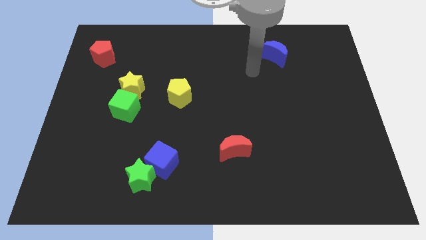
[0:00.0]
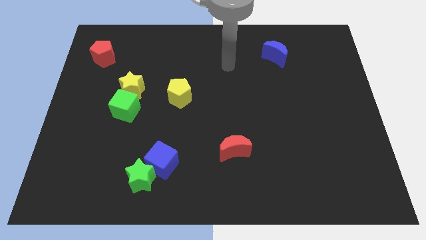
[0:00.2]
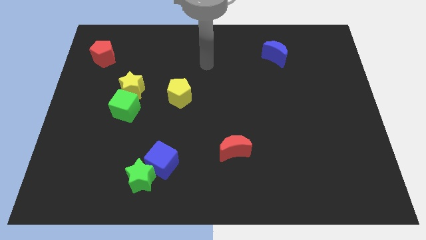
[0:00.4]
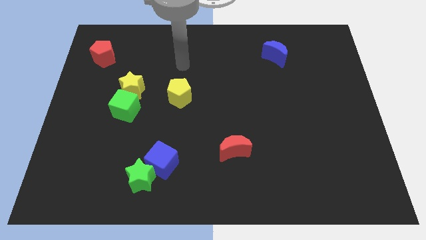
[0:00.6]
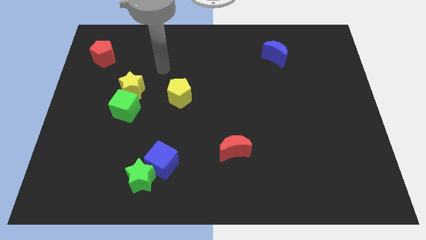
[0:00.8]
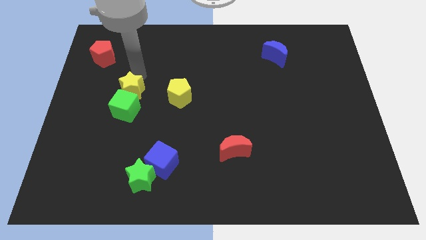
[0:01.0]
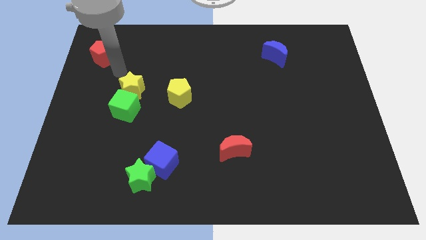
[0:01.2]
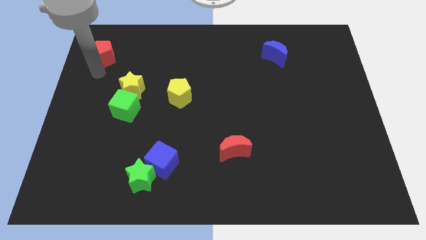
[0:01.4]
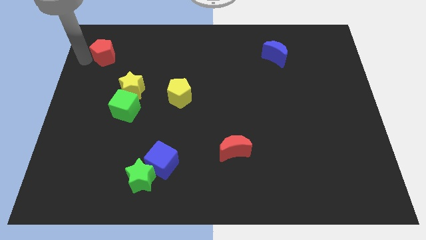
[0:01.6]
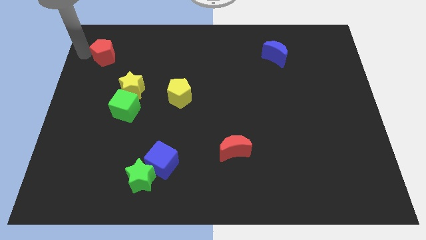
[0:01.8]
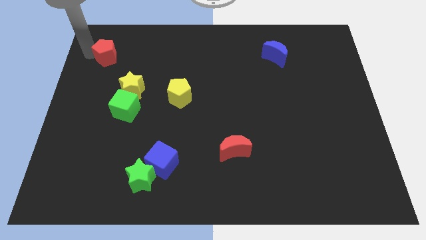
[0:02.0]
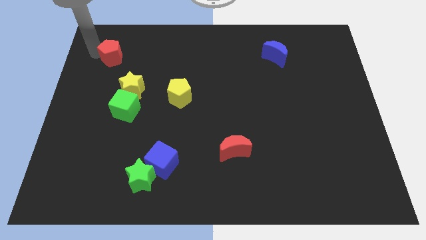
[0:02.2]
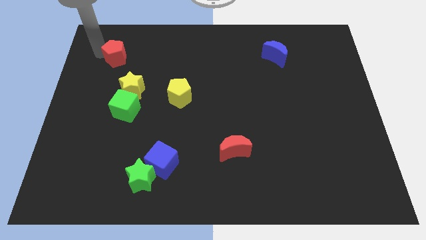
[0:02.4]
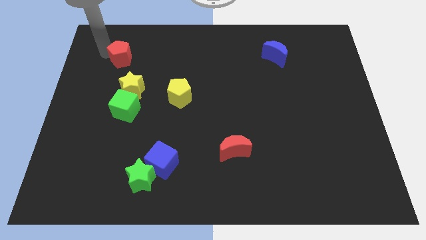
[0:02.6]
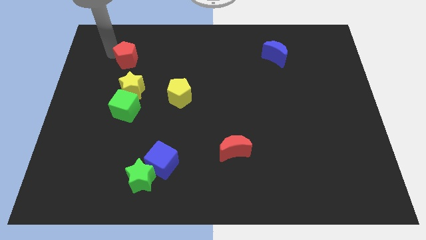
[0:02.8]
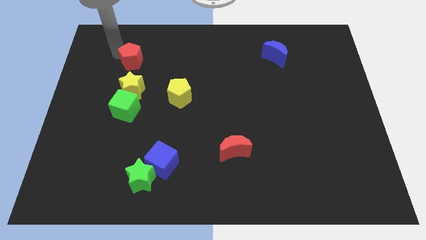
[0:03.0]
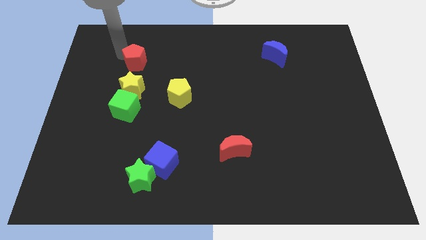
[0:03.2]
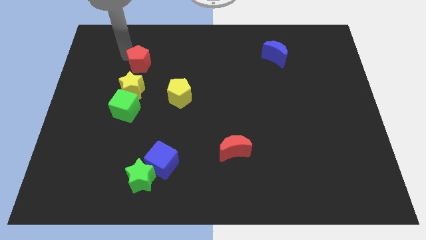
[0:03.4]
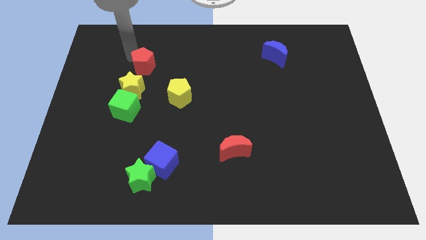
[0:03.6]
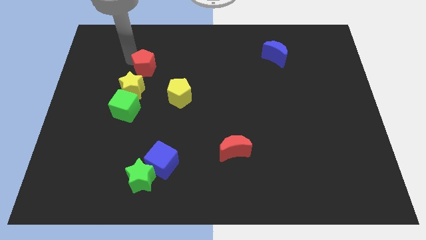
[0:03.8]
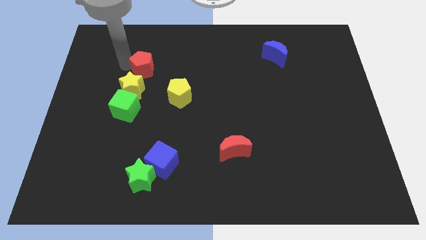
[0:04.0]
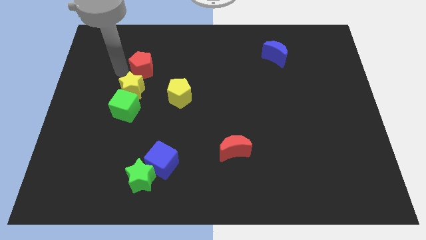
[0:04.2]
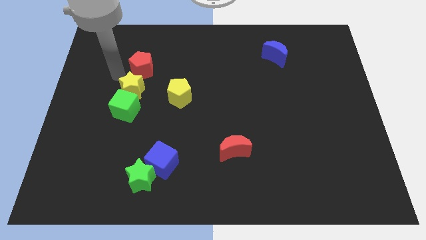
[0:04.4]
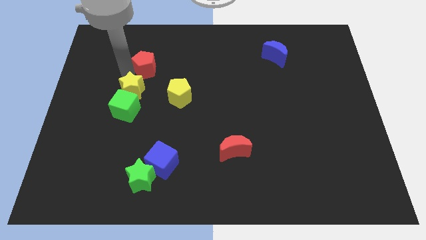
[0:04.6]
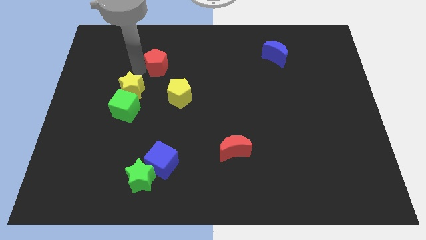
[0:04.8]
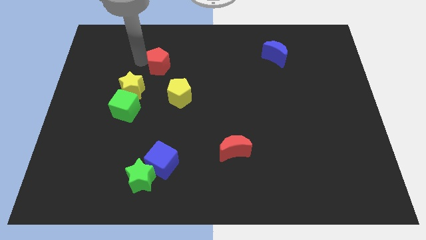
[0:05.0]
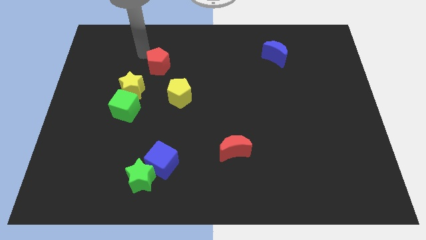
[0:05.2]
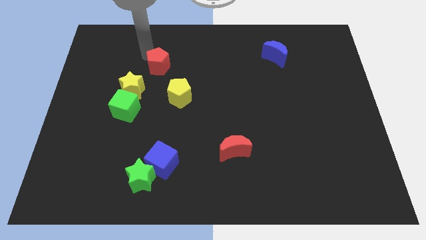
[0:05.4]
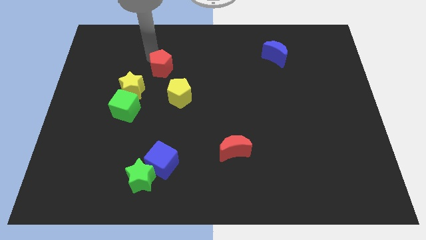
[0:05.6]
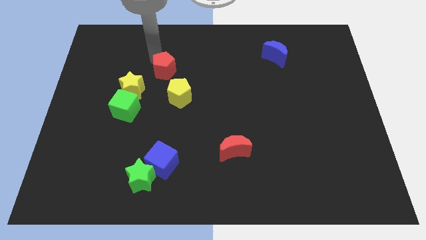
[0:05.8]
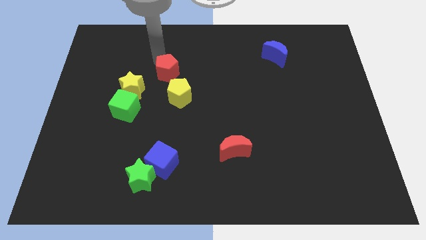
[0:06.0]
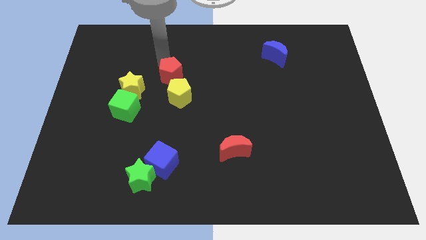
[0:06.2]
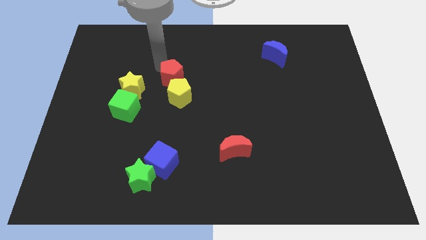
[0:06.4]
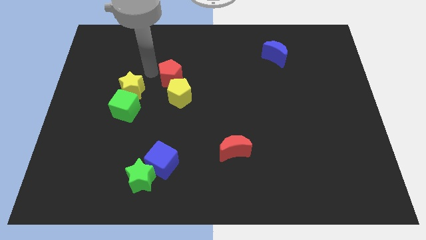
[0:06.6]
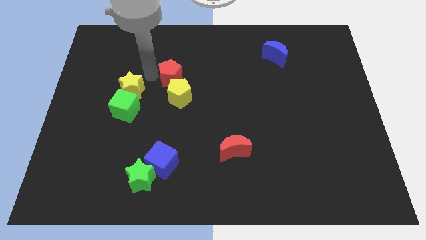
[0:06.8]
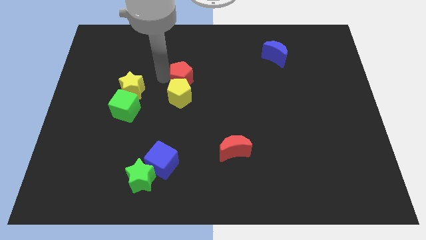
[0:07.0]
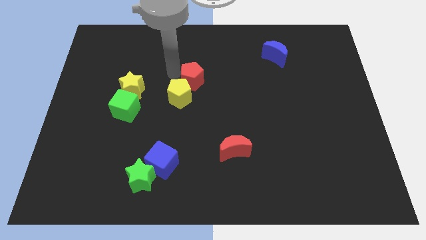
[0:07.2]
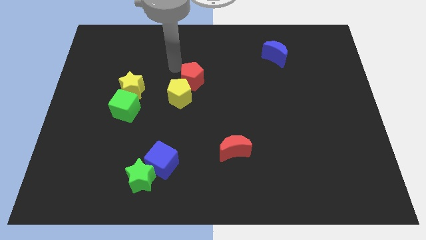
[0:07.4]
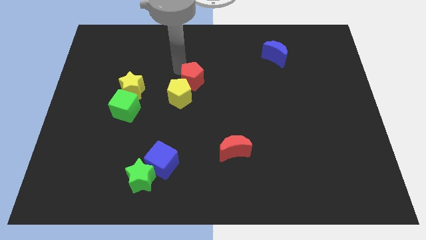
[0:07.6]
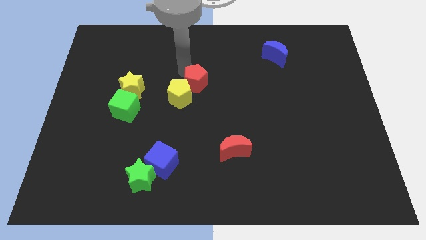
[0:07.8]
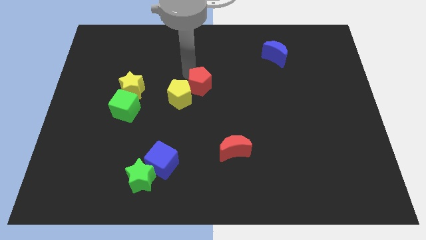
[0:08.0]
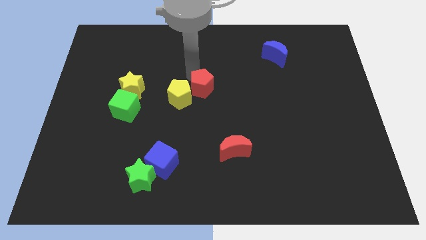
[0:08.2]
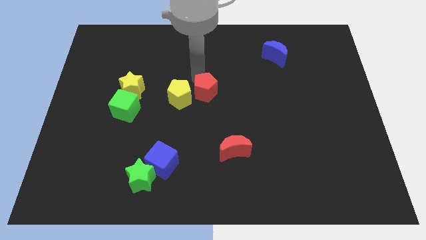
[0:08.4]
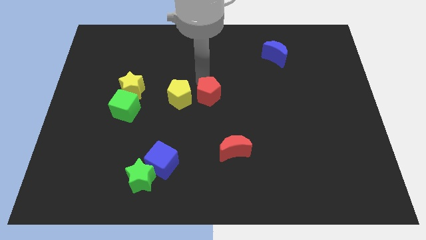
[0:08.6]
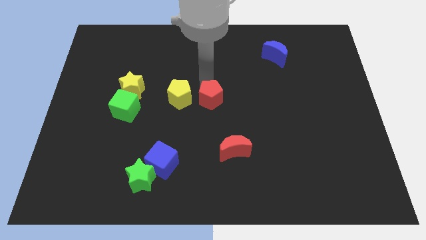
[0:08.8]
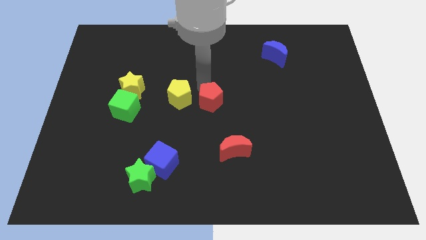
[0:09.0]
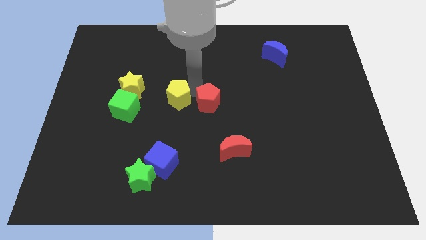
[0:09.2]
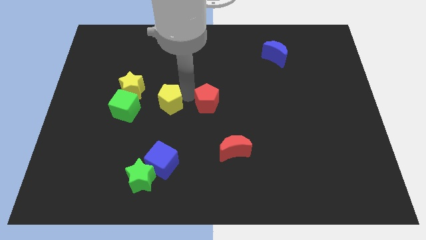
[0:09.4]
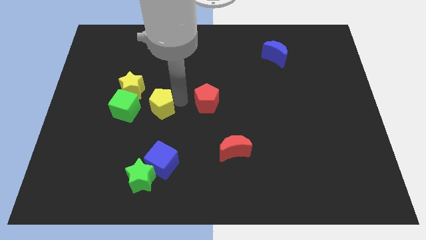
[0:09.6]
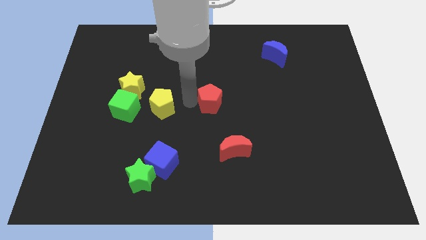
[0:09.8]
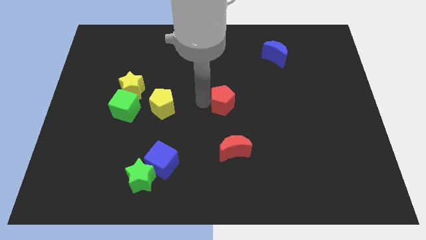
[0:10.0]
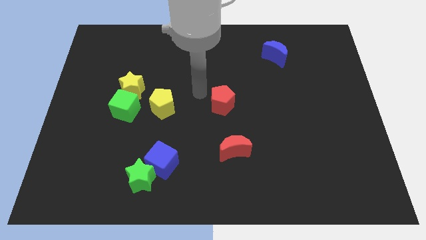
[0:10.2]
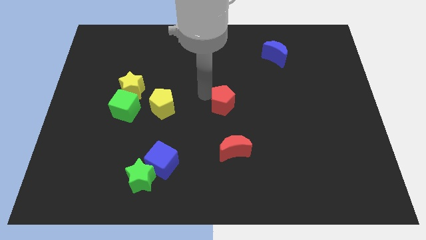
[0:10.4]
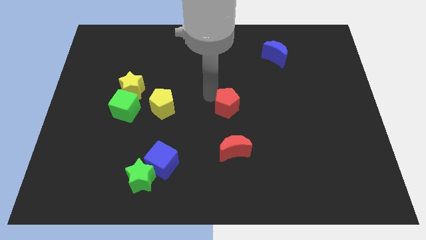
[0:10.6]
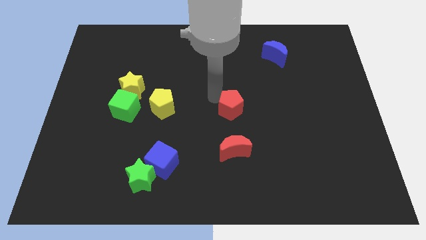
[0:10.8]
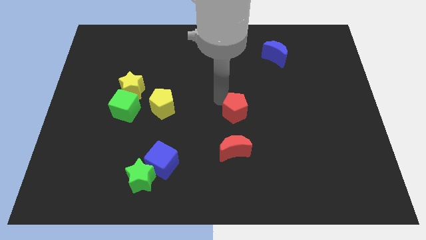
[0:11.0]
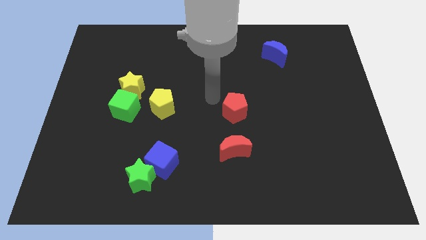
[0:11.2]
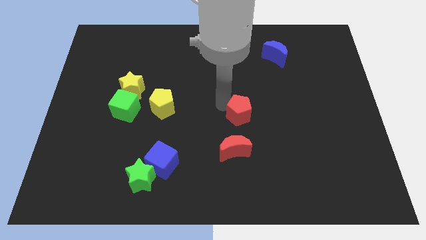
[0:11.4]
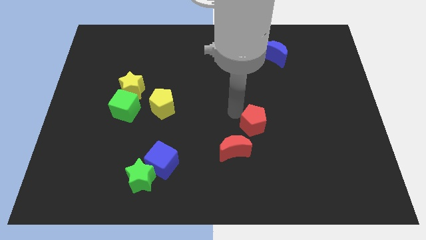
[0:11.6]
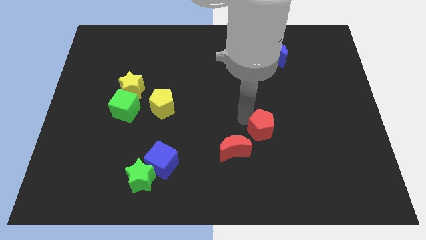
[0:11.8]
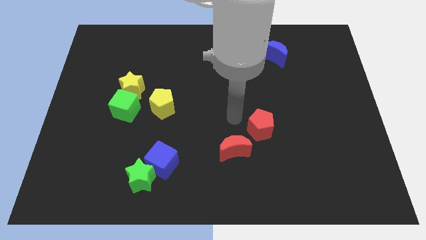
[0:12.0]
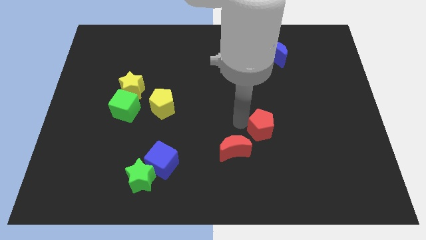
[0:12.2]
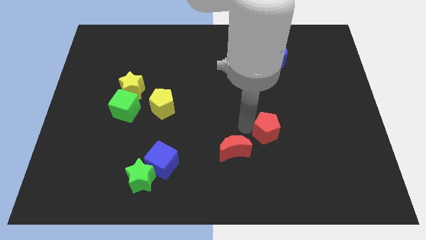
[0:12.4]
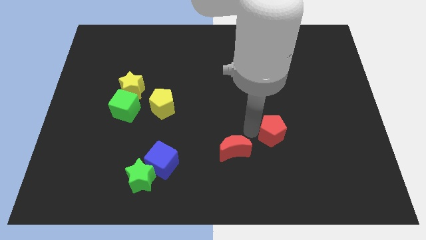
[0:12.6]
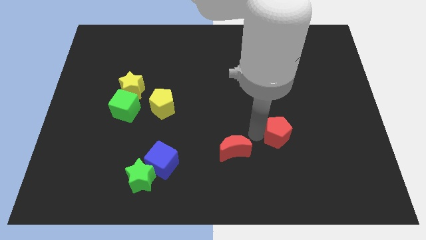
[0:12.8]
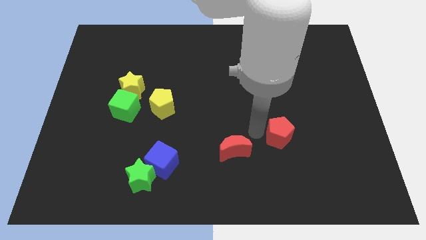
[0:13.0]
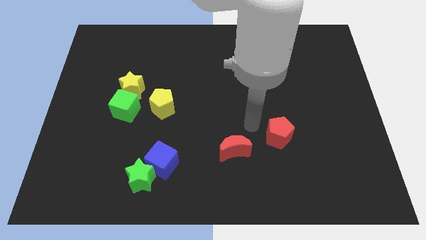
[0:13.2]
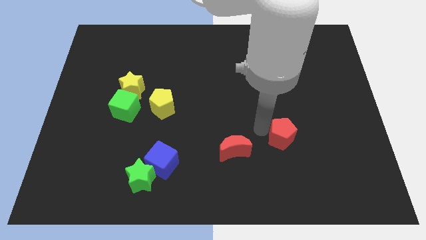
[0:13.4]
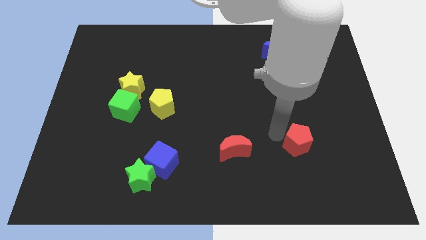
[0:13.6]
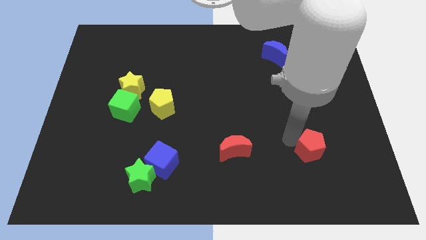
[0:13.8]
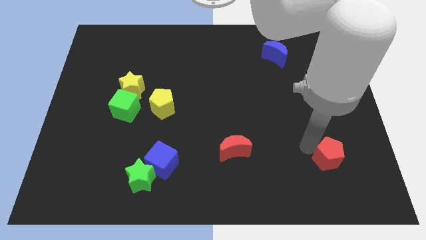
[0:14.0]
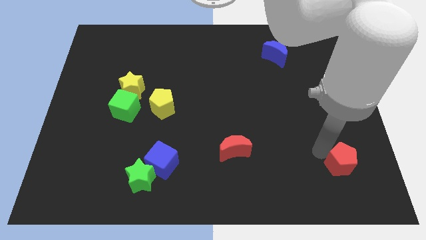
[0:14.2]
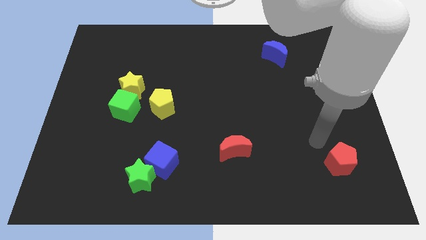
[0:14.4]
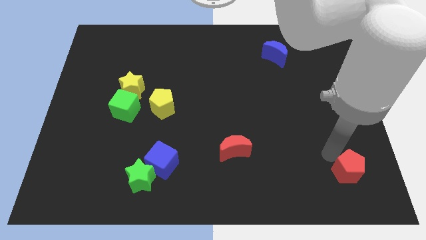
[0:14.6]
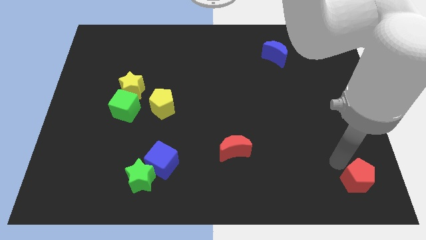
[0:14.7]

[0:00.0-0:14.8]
move the red pentagon to the bottom right of the board
